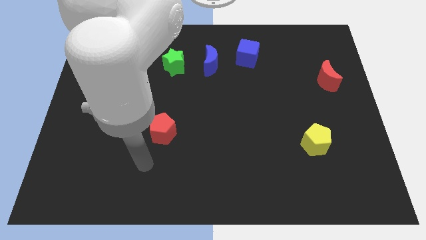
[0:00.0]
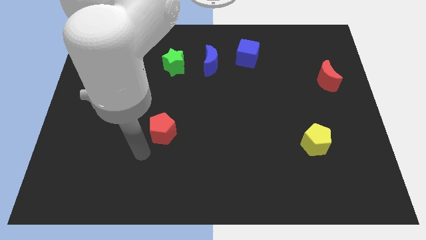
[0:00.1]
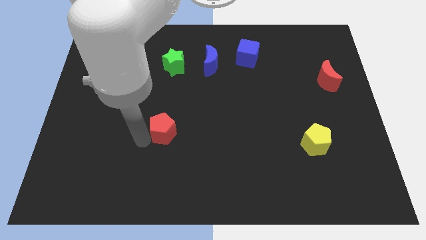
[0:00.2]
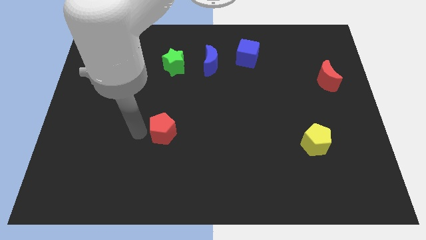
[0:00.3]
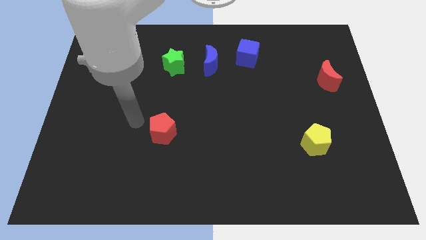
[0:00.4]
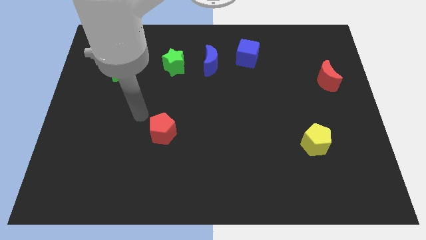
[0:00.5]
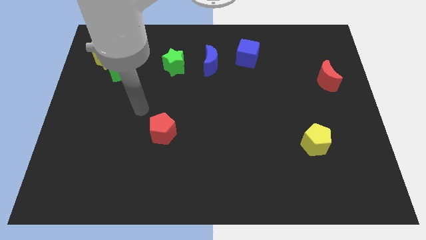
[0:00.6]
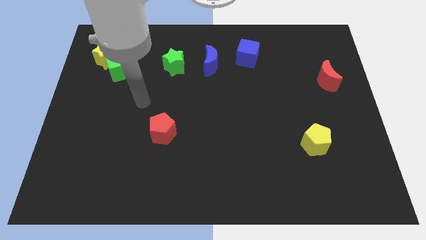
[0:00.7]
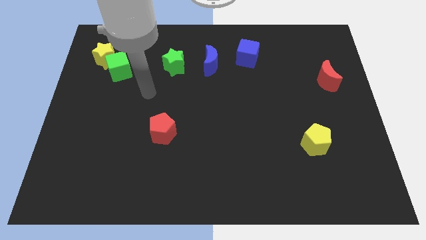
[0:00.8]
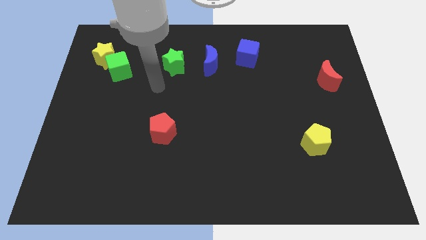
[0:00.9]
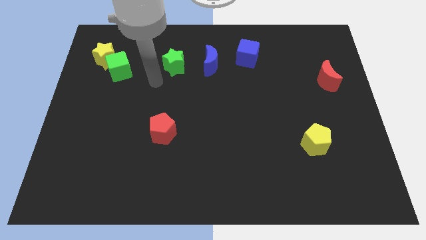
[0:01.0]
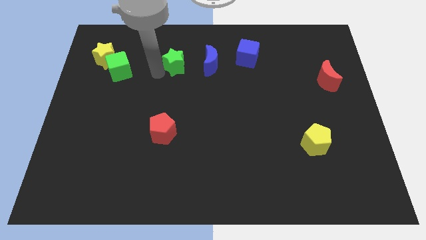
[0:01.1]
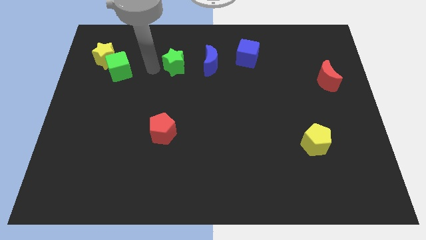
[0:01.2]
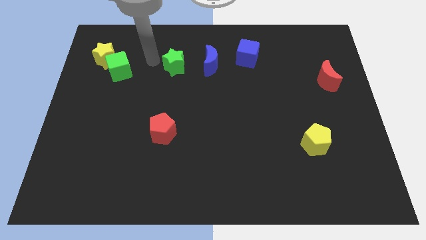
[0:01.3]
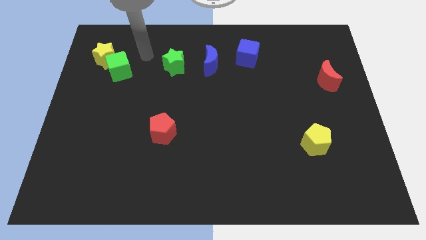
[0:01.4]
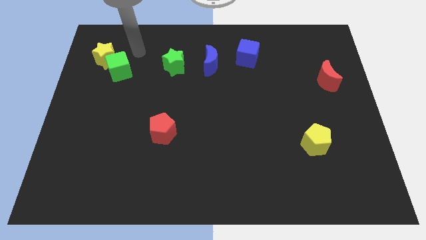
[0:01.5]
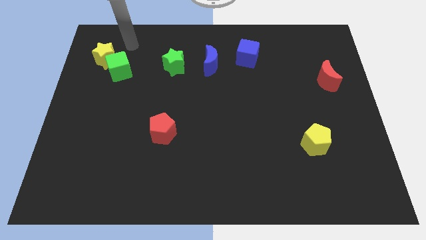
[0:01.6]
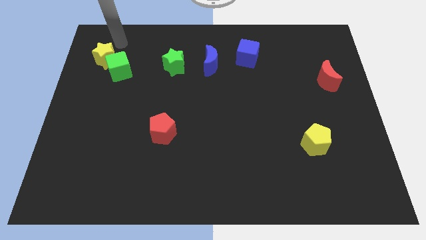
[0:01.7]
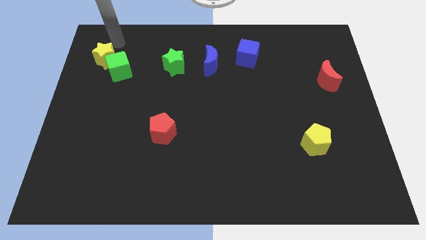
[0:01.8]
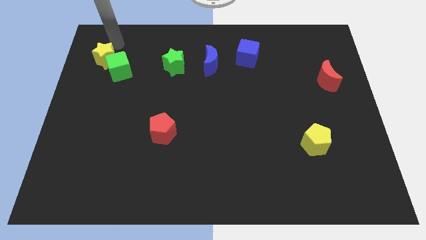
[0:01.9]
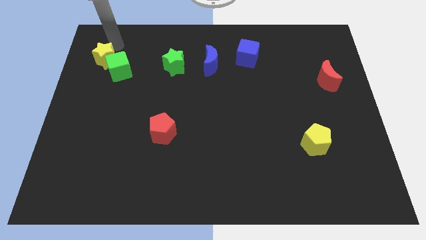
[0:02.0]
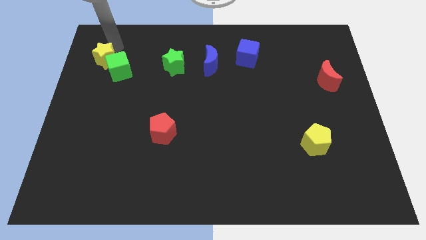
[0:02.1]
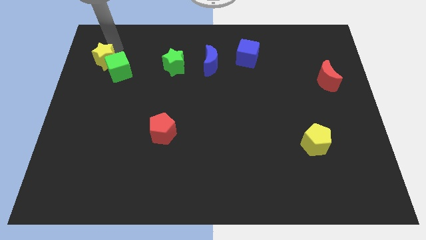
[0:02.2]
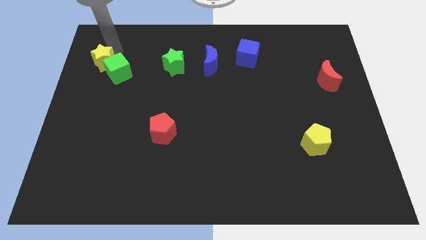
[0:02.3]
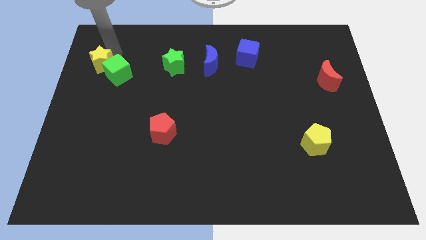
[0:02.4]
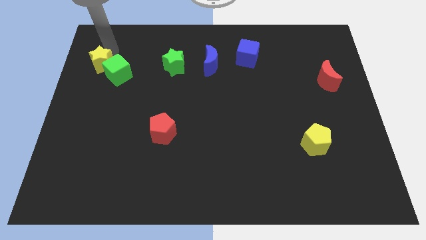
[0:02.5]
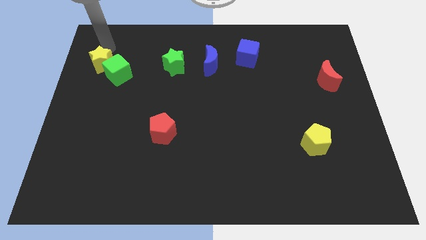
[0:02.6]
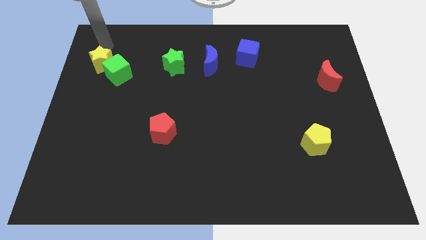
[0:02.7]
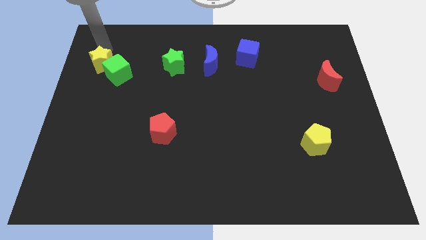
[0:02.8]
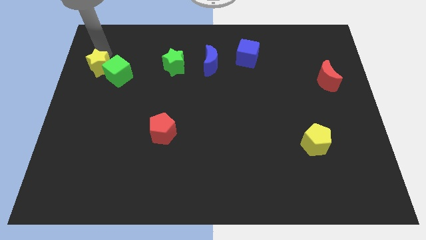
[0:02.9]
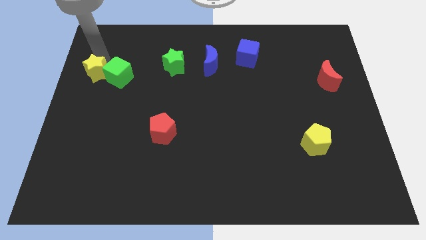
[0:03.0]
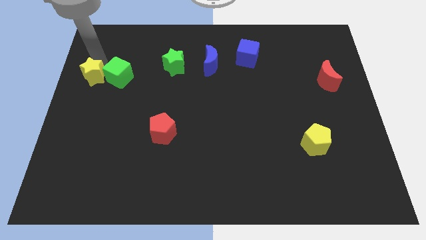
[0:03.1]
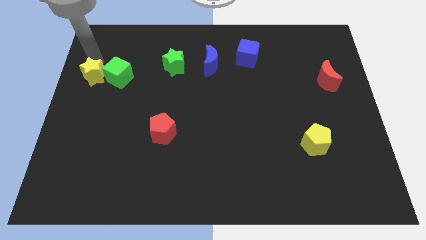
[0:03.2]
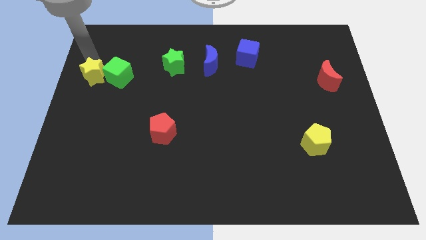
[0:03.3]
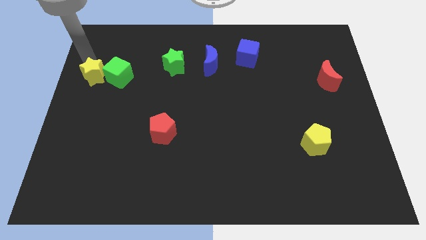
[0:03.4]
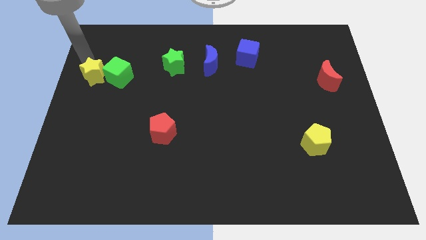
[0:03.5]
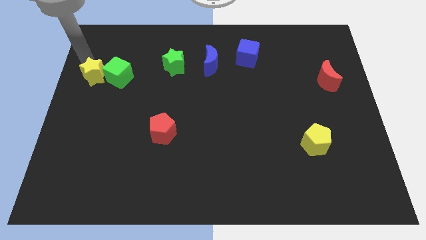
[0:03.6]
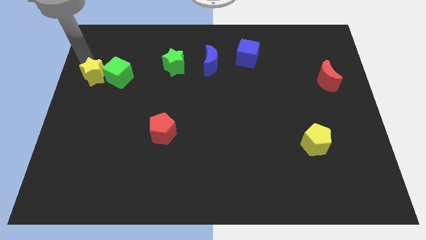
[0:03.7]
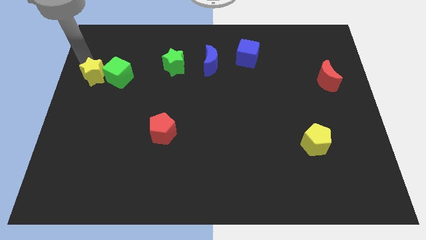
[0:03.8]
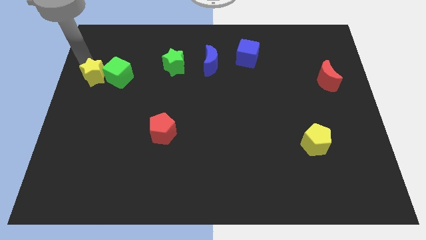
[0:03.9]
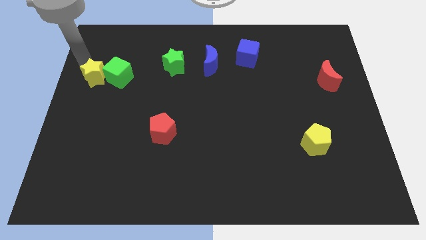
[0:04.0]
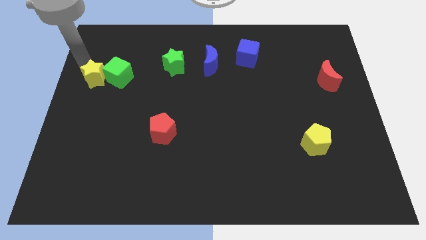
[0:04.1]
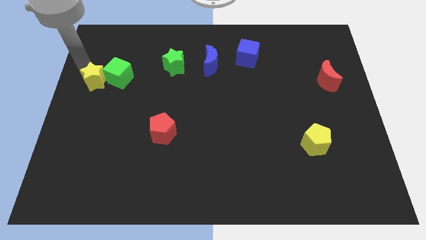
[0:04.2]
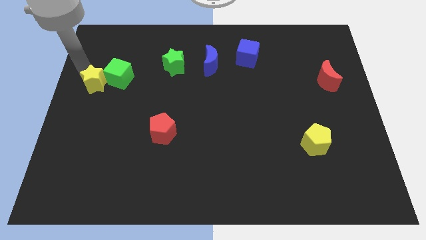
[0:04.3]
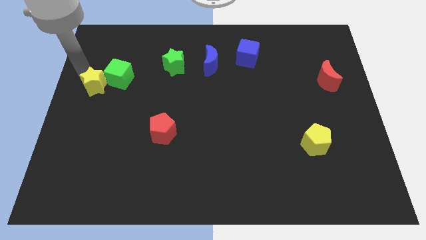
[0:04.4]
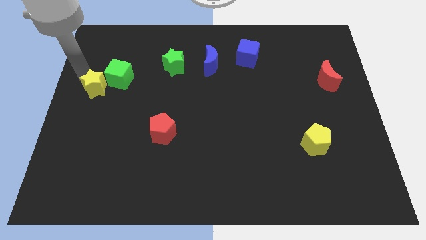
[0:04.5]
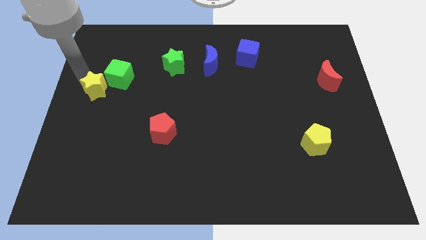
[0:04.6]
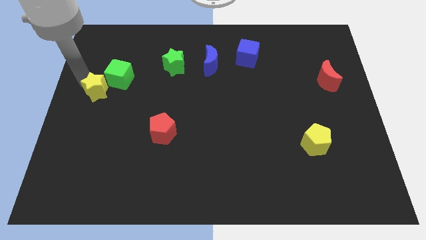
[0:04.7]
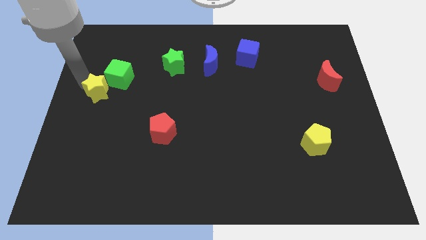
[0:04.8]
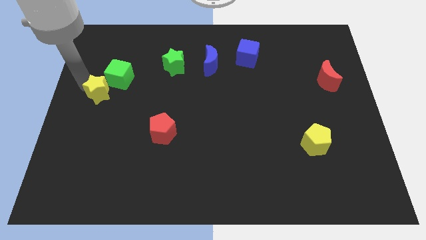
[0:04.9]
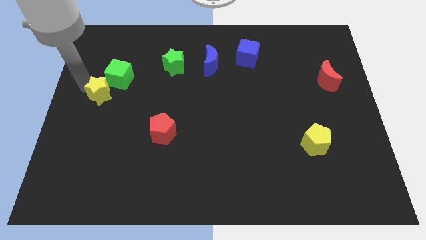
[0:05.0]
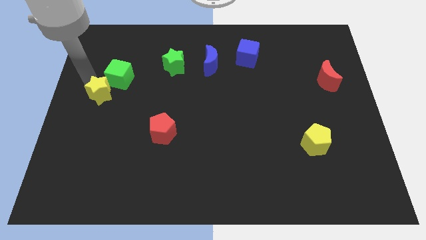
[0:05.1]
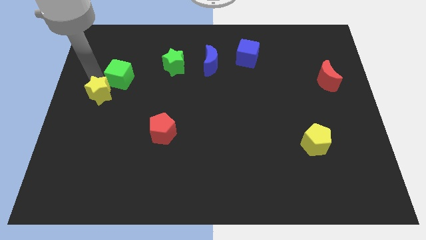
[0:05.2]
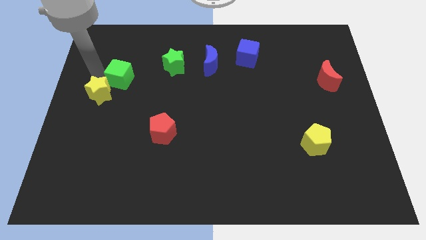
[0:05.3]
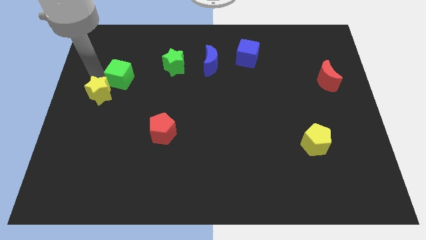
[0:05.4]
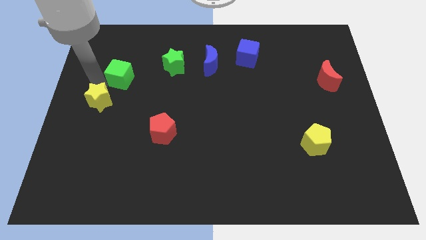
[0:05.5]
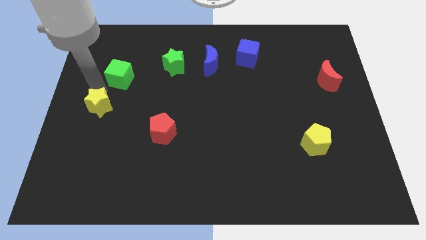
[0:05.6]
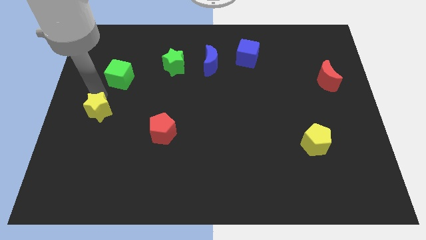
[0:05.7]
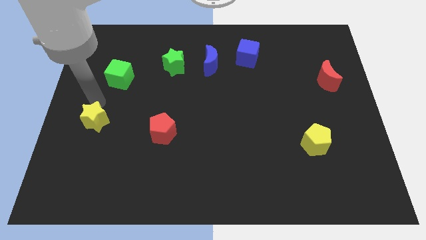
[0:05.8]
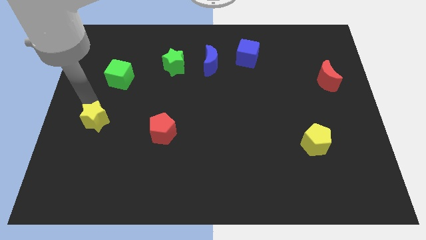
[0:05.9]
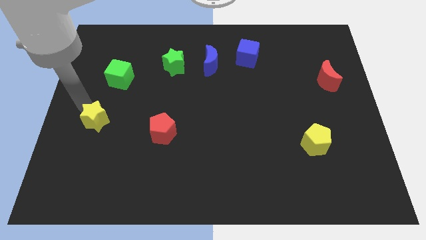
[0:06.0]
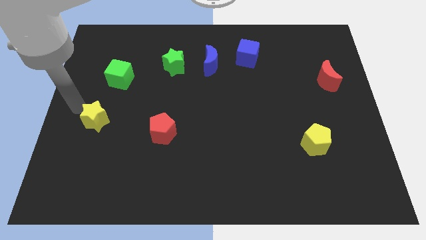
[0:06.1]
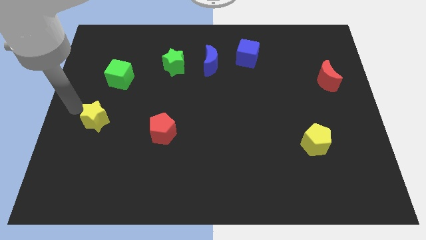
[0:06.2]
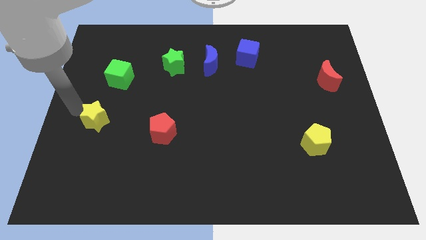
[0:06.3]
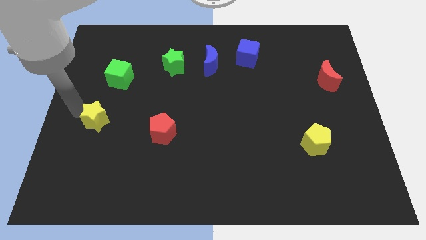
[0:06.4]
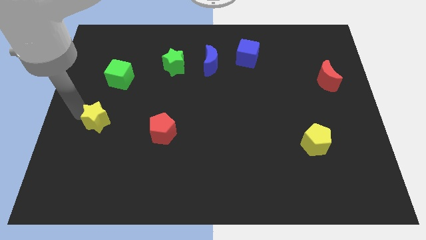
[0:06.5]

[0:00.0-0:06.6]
push the yellow star just left of the red pentagon
